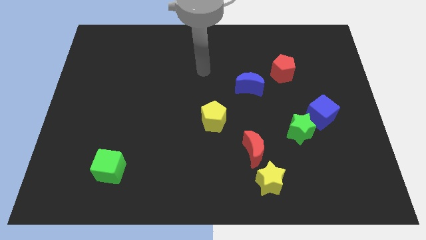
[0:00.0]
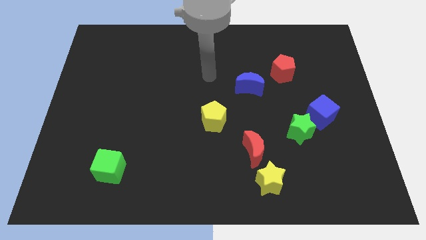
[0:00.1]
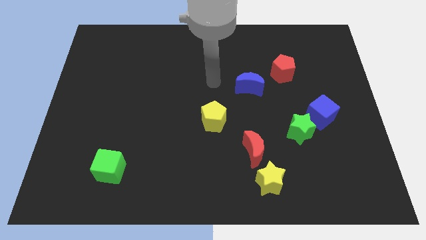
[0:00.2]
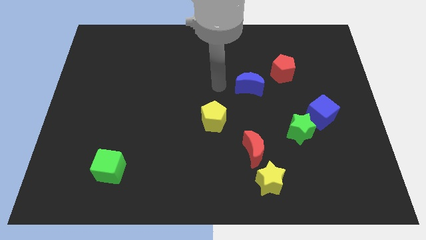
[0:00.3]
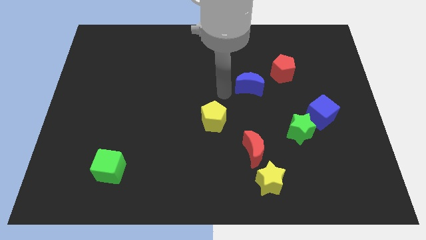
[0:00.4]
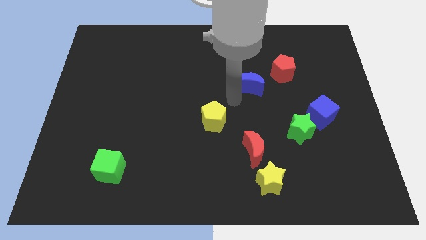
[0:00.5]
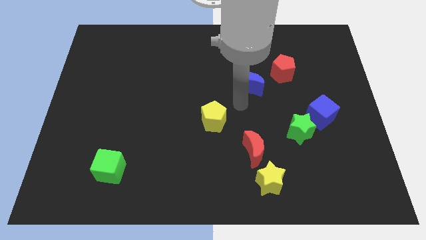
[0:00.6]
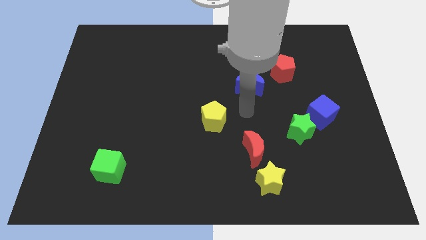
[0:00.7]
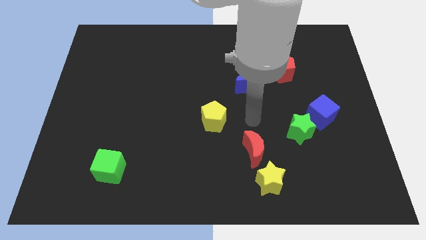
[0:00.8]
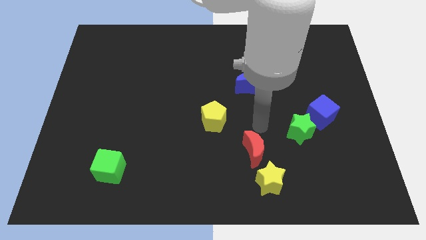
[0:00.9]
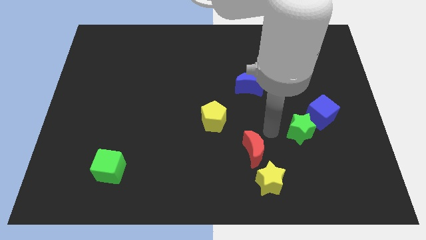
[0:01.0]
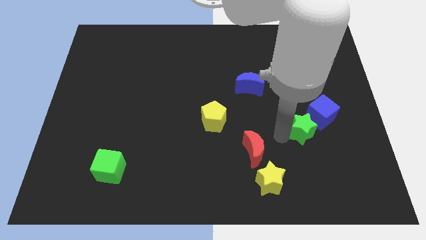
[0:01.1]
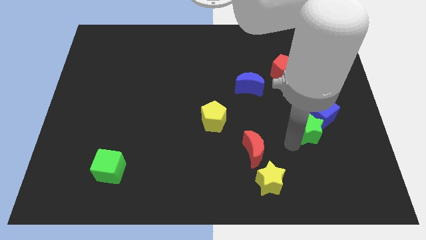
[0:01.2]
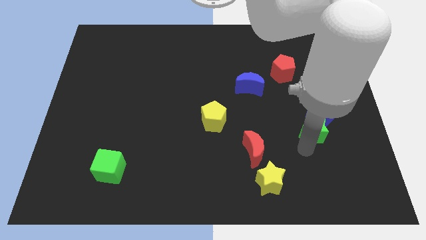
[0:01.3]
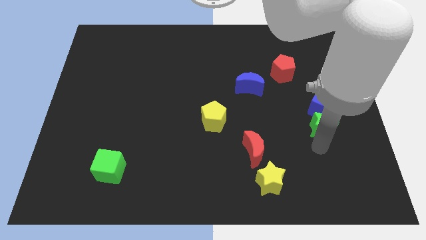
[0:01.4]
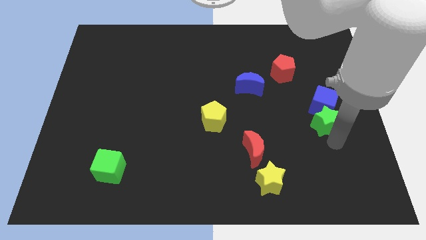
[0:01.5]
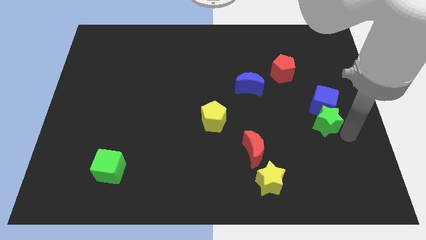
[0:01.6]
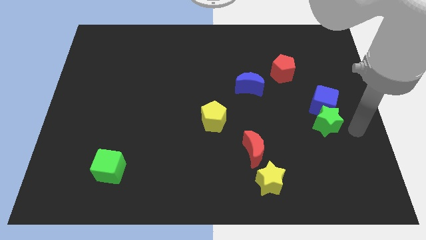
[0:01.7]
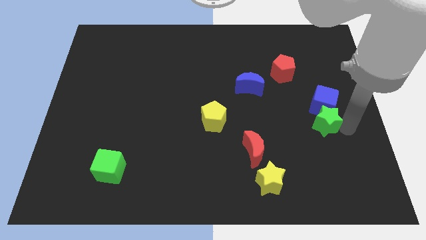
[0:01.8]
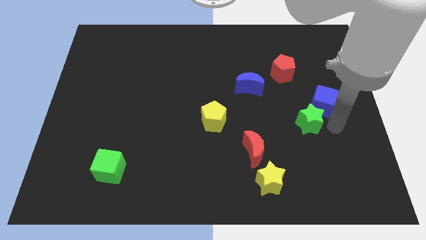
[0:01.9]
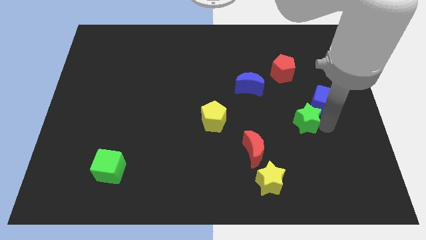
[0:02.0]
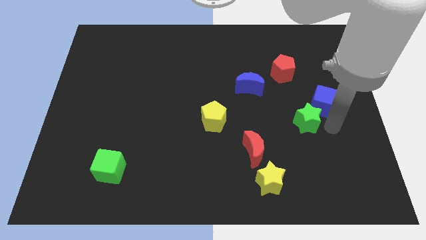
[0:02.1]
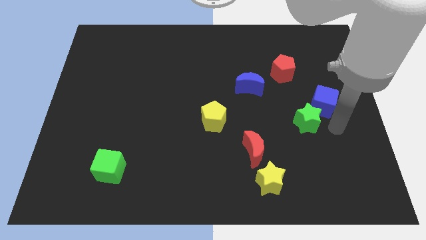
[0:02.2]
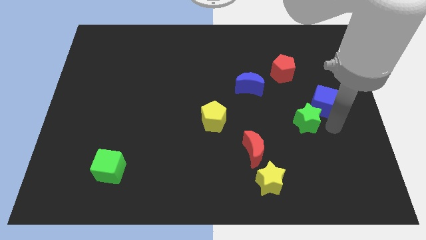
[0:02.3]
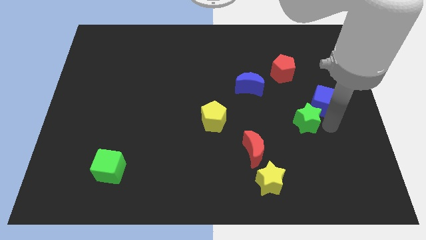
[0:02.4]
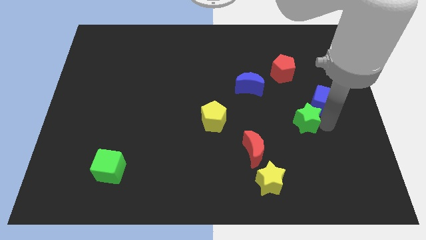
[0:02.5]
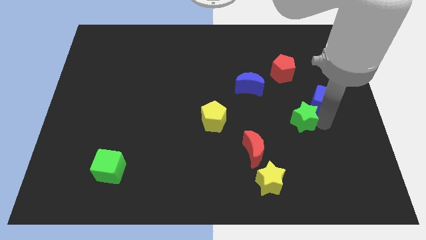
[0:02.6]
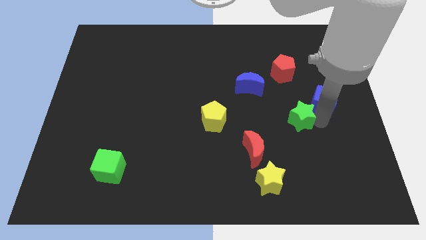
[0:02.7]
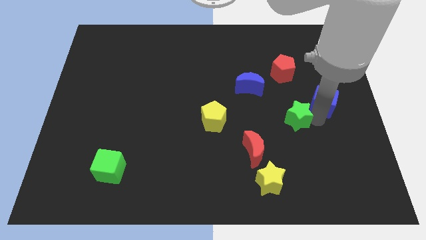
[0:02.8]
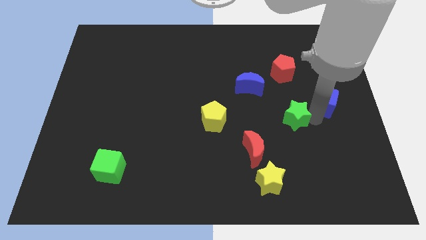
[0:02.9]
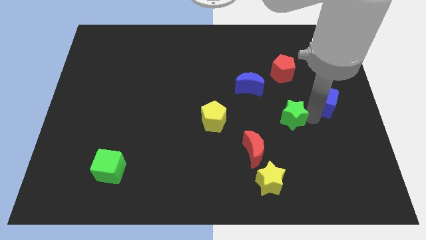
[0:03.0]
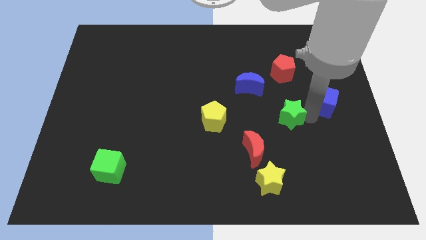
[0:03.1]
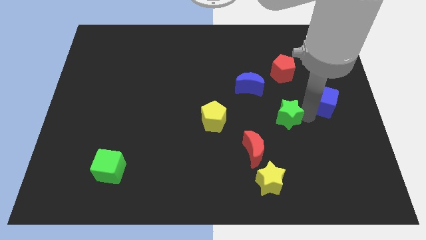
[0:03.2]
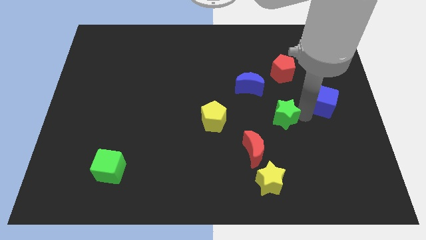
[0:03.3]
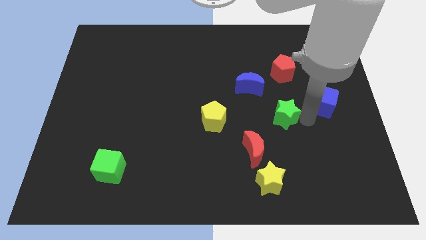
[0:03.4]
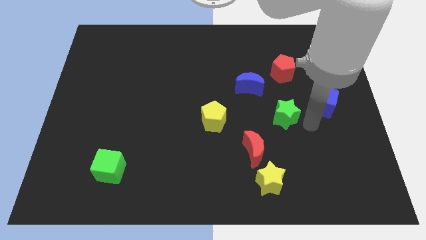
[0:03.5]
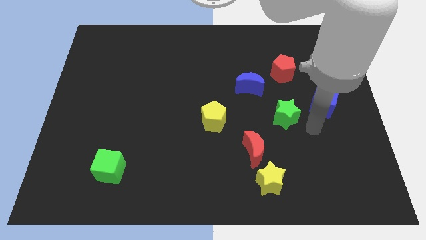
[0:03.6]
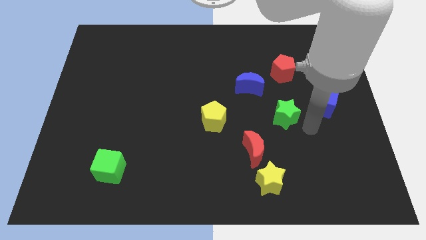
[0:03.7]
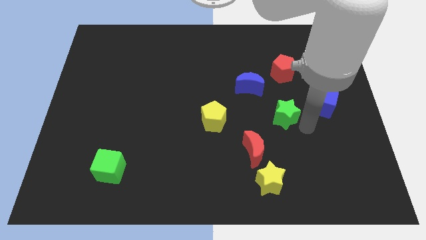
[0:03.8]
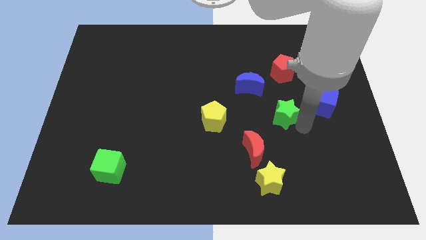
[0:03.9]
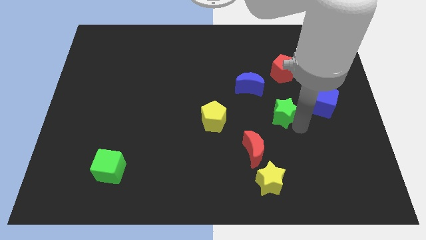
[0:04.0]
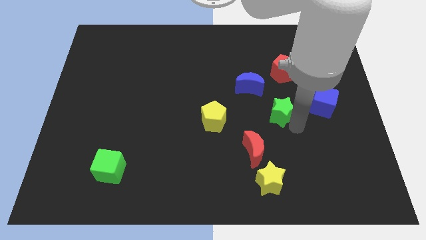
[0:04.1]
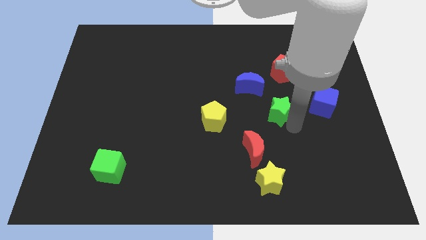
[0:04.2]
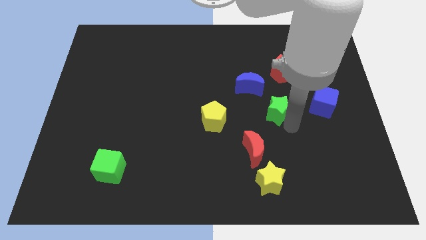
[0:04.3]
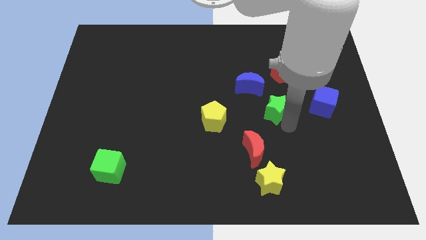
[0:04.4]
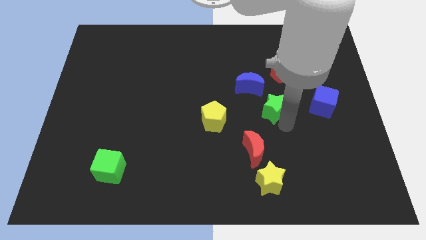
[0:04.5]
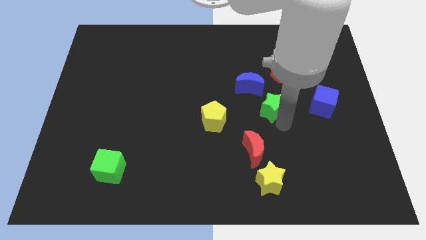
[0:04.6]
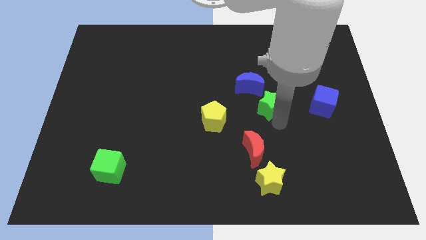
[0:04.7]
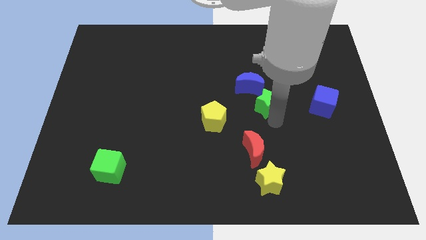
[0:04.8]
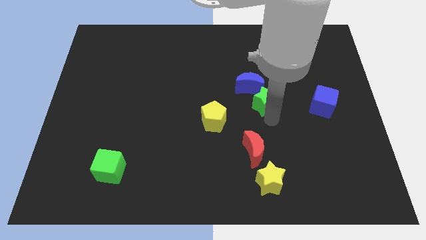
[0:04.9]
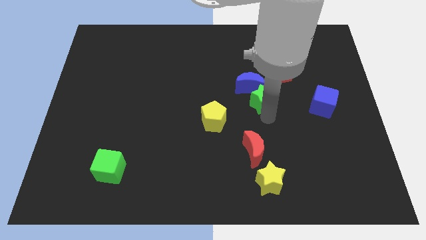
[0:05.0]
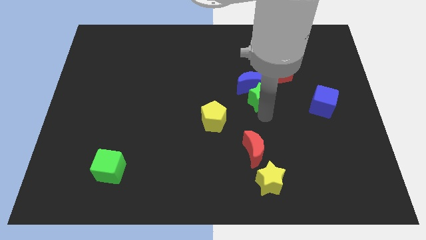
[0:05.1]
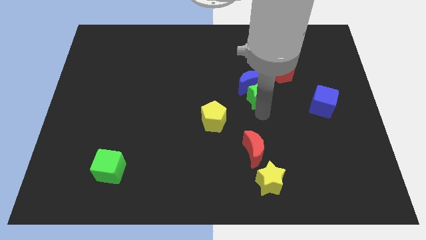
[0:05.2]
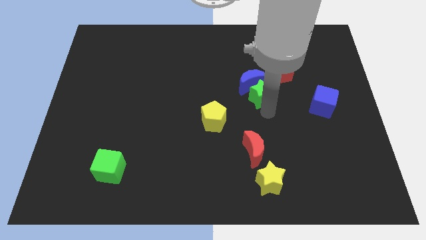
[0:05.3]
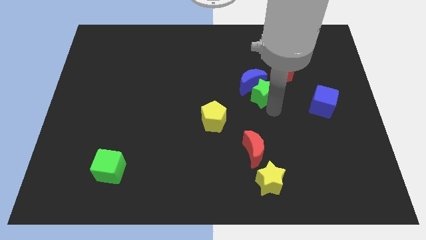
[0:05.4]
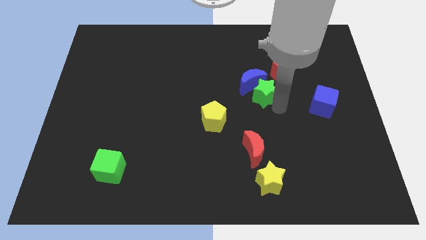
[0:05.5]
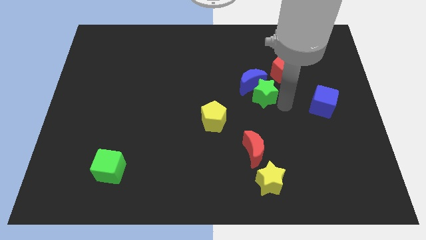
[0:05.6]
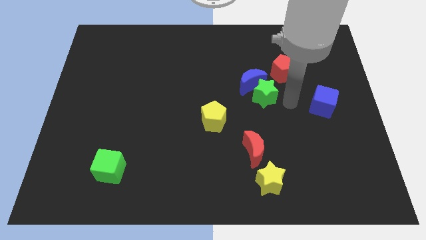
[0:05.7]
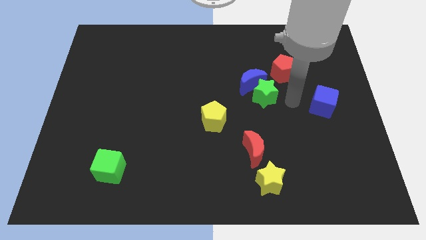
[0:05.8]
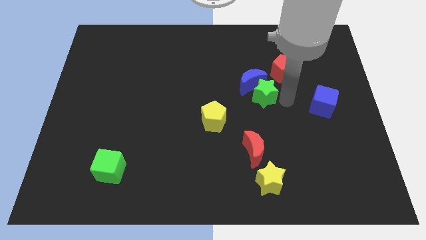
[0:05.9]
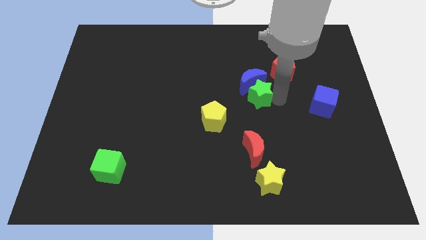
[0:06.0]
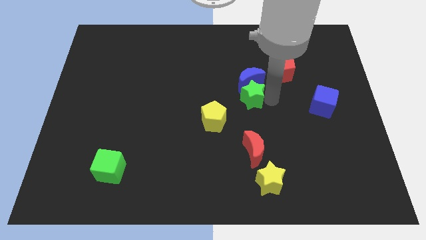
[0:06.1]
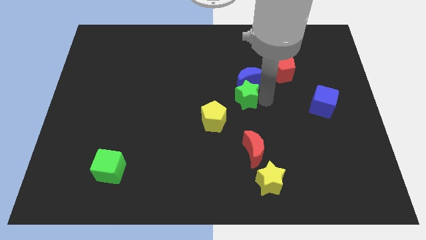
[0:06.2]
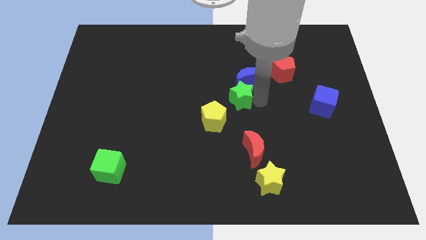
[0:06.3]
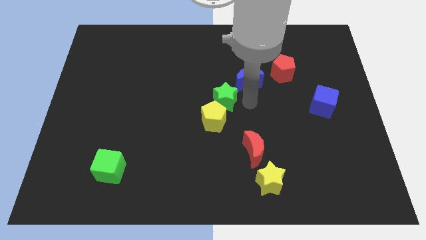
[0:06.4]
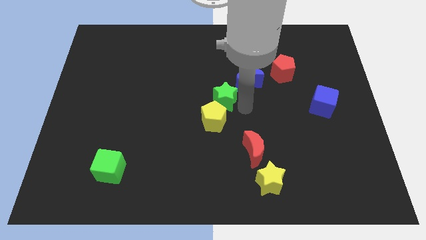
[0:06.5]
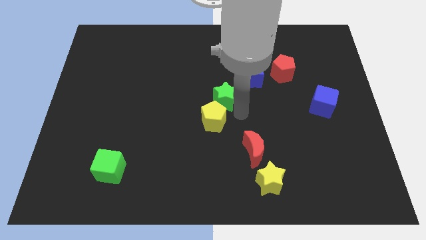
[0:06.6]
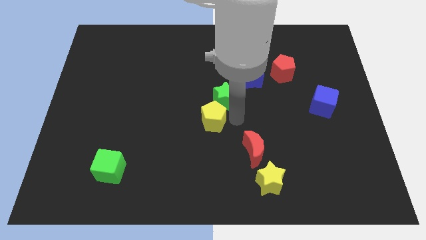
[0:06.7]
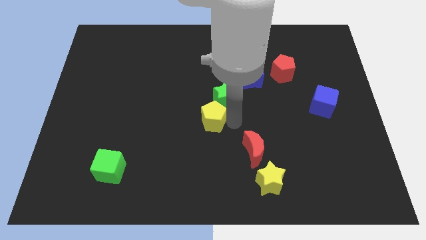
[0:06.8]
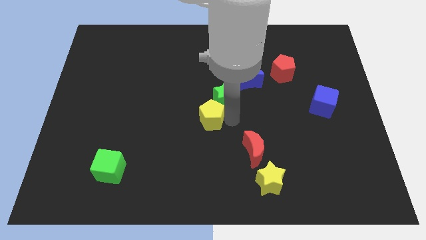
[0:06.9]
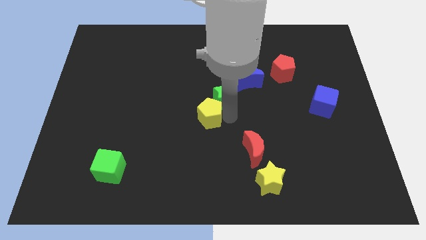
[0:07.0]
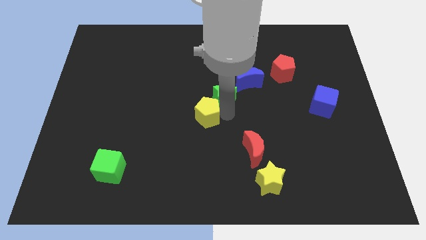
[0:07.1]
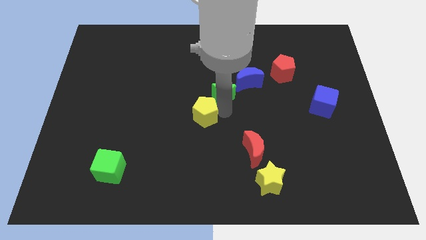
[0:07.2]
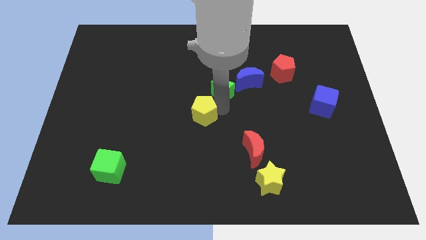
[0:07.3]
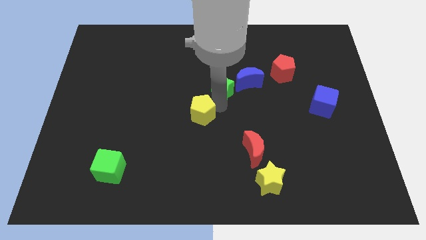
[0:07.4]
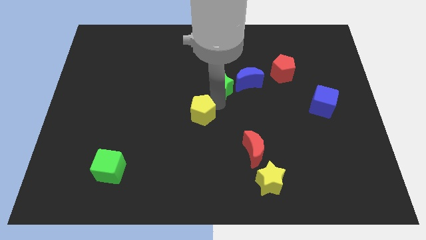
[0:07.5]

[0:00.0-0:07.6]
move the green star up and then to the left

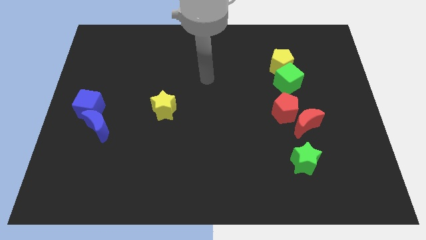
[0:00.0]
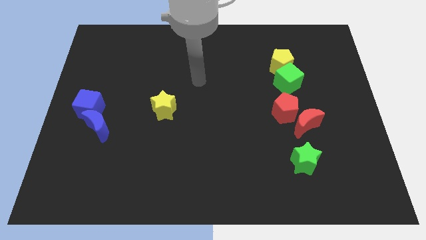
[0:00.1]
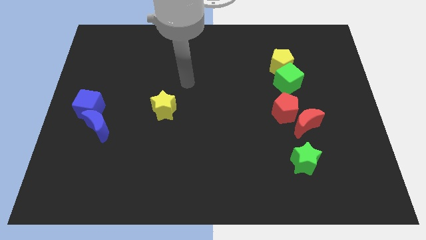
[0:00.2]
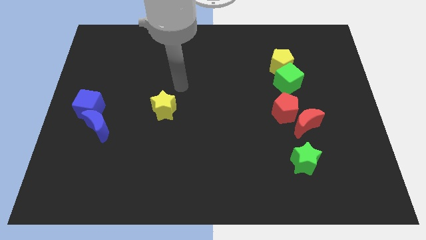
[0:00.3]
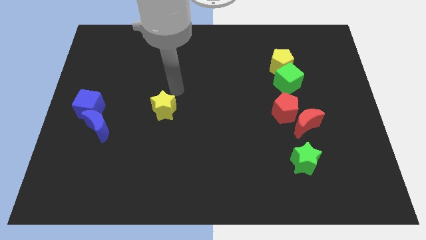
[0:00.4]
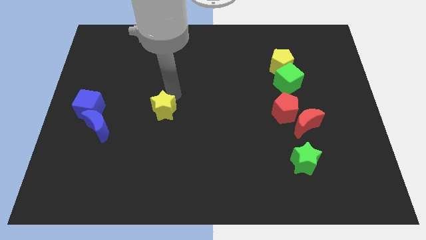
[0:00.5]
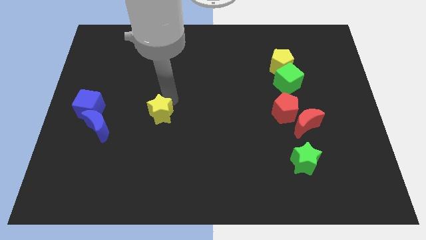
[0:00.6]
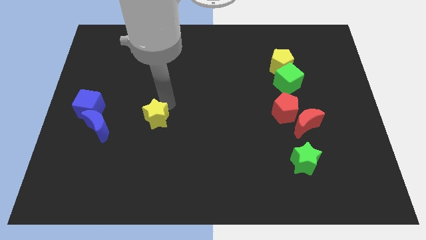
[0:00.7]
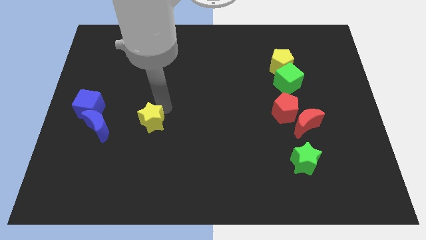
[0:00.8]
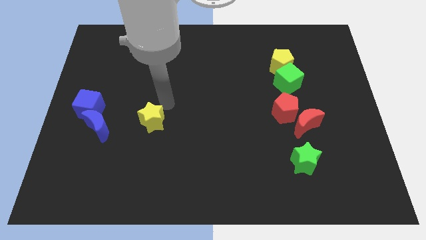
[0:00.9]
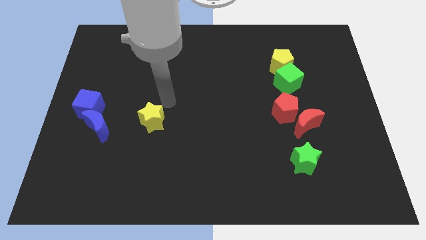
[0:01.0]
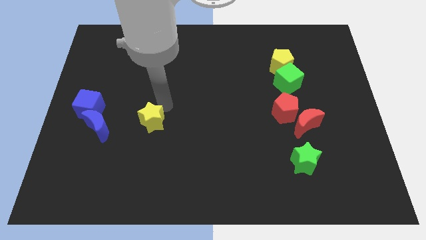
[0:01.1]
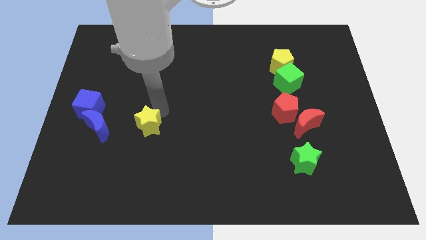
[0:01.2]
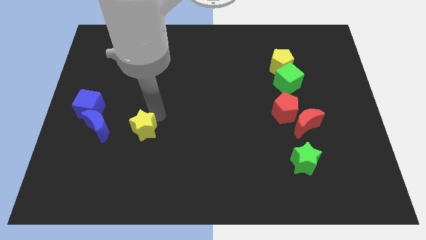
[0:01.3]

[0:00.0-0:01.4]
slide the yellow star a little bit down and to the left
